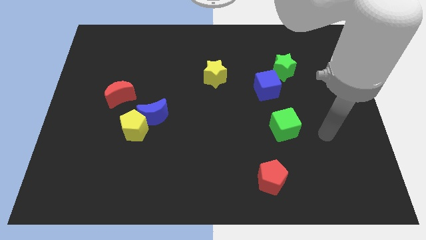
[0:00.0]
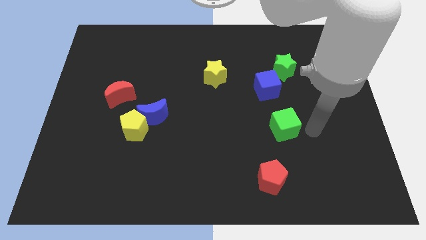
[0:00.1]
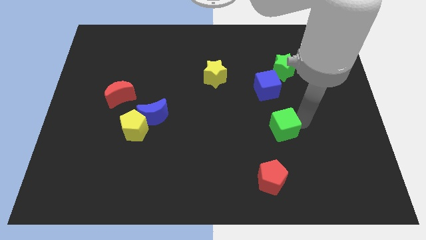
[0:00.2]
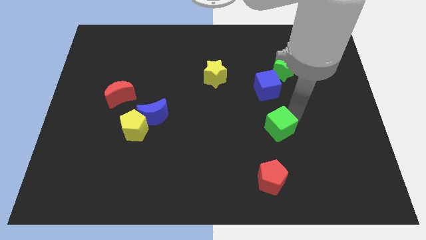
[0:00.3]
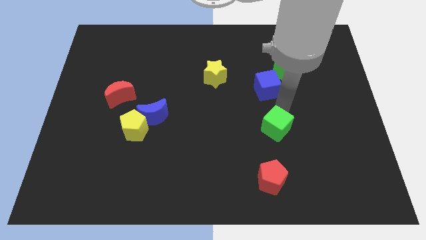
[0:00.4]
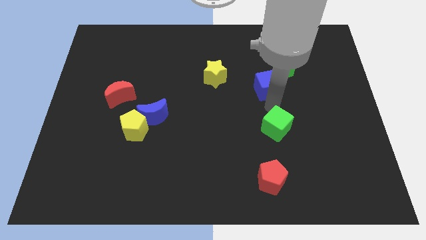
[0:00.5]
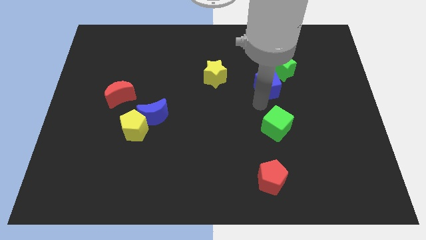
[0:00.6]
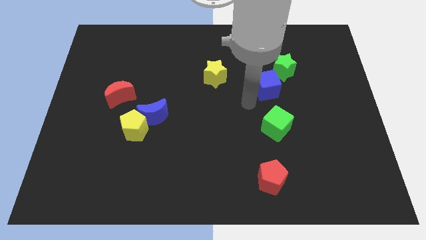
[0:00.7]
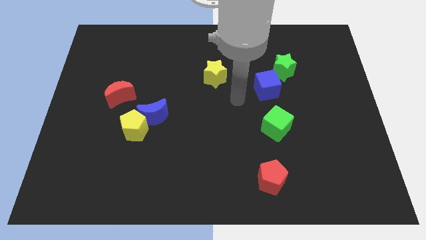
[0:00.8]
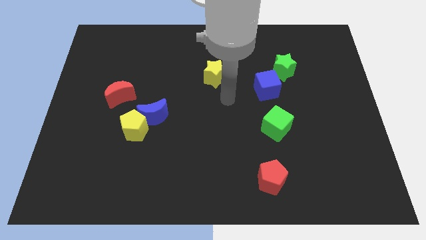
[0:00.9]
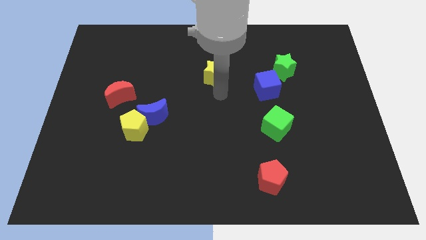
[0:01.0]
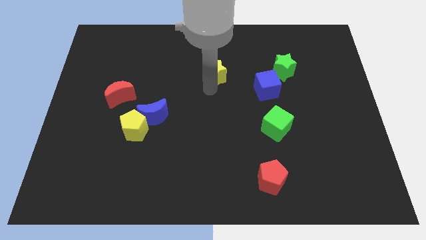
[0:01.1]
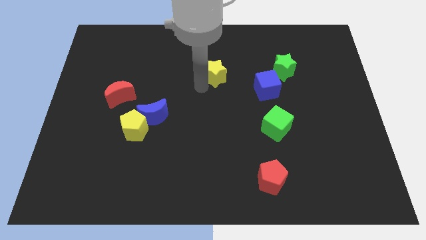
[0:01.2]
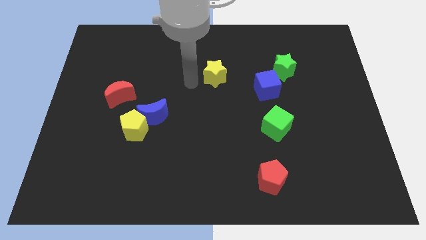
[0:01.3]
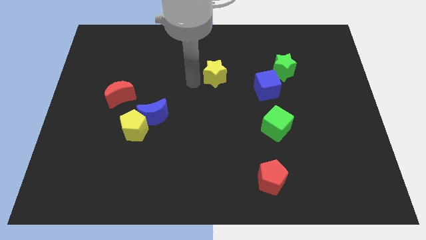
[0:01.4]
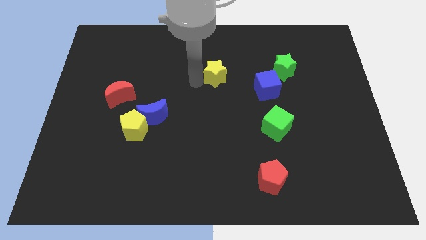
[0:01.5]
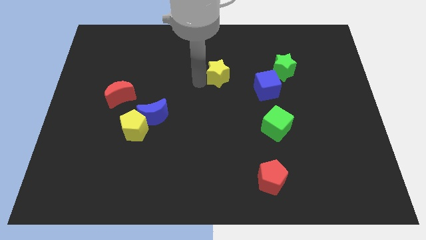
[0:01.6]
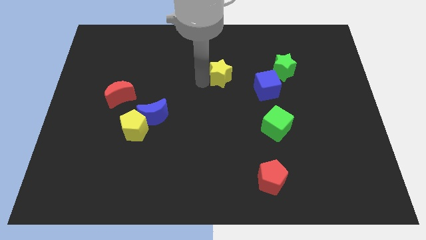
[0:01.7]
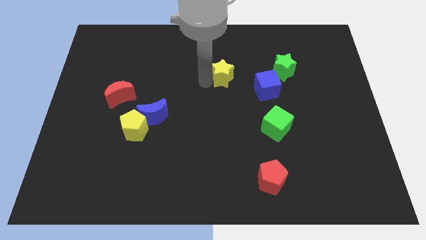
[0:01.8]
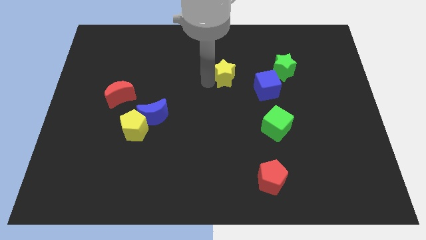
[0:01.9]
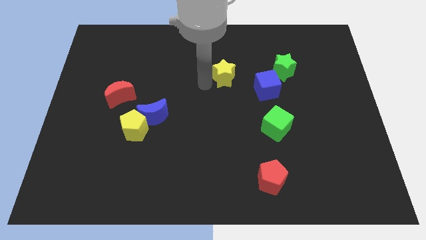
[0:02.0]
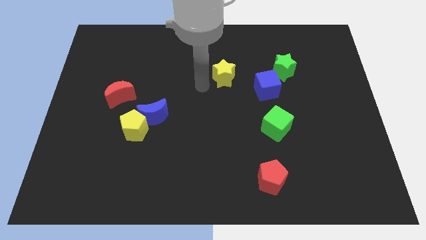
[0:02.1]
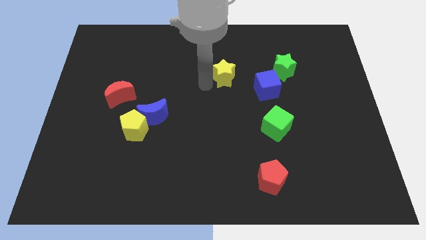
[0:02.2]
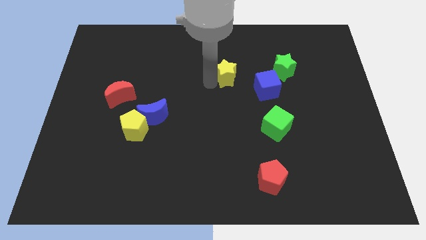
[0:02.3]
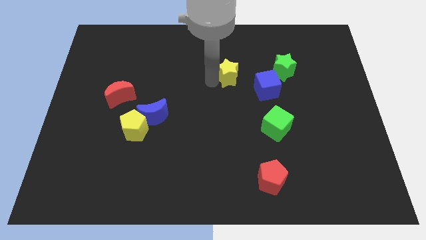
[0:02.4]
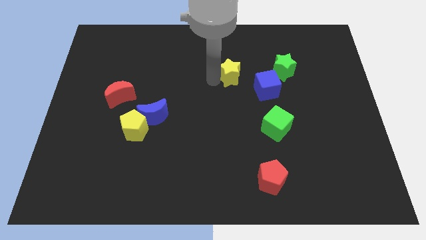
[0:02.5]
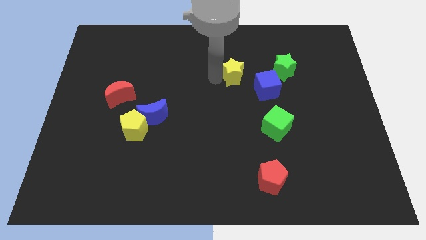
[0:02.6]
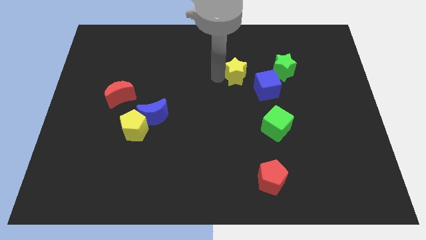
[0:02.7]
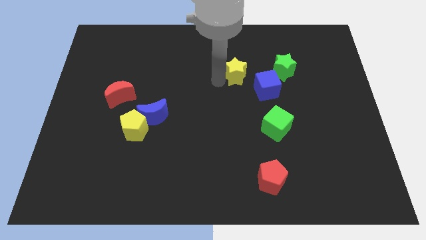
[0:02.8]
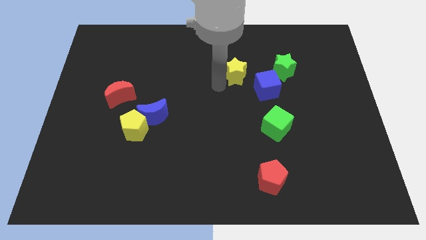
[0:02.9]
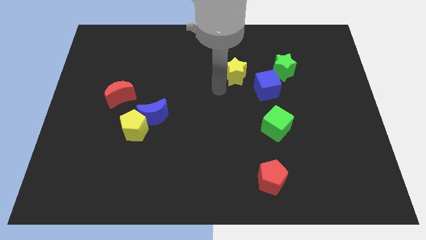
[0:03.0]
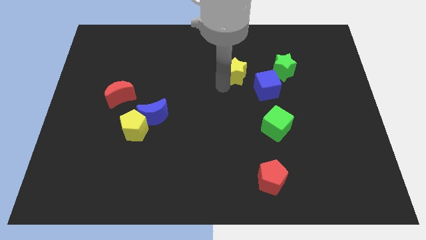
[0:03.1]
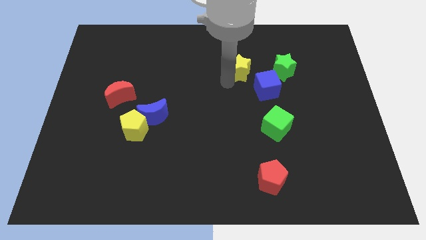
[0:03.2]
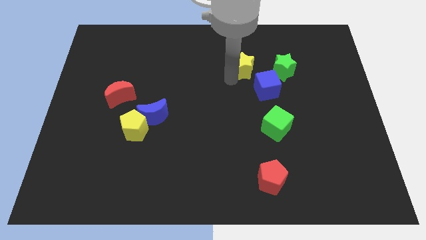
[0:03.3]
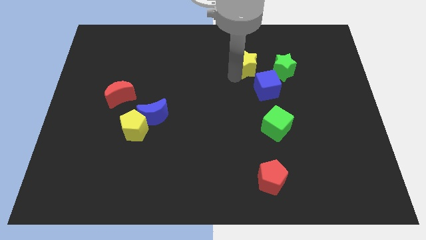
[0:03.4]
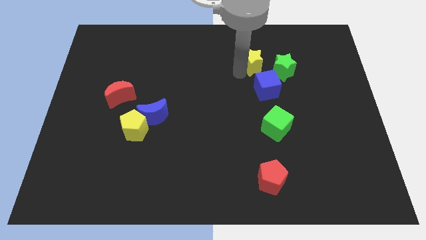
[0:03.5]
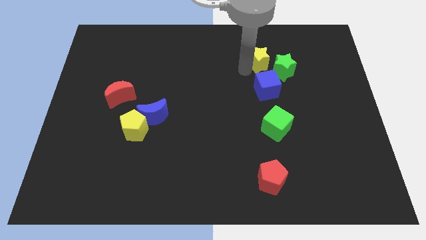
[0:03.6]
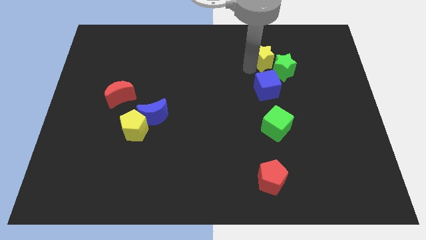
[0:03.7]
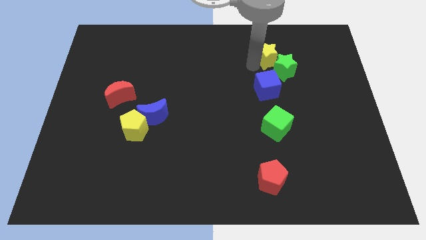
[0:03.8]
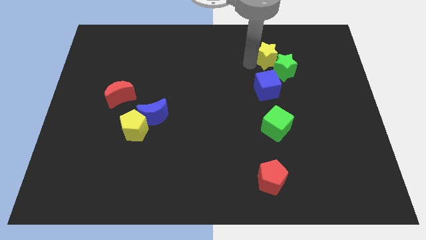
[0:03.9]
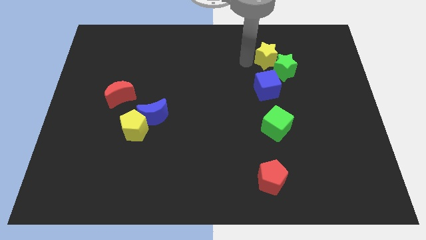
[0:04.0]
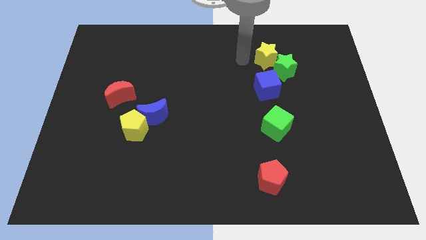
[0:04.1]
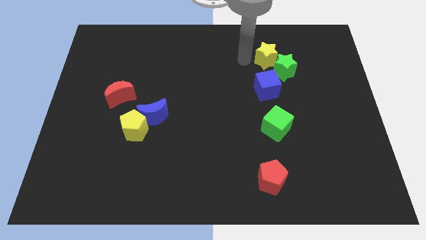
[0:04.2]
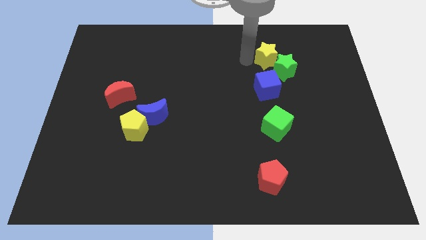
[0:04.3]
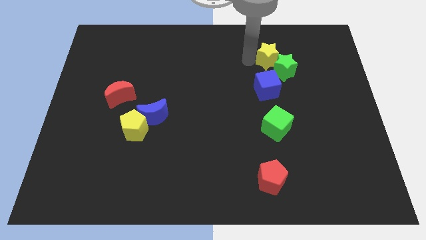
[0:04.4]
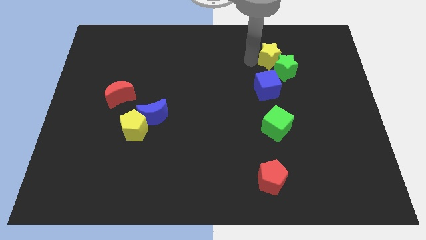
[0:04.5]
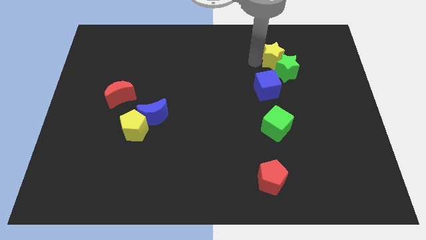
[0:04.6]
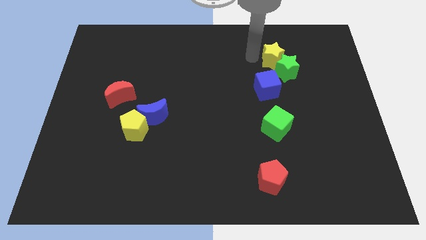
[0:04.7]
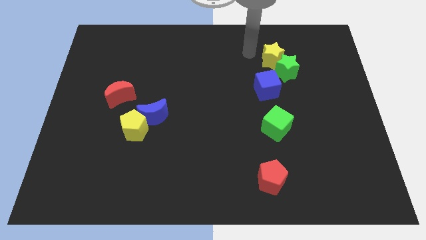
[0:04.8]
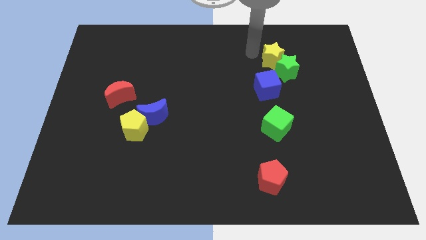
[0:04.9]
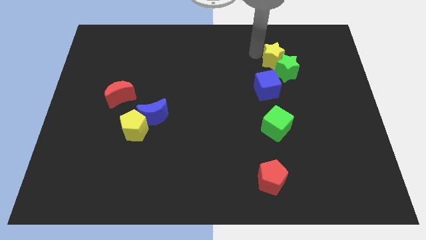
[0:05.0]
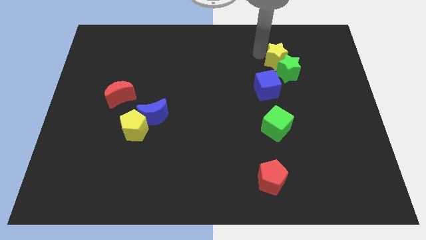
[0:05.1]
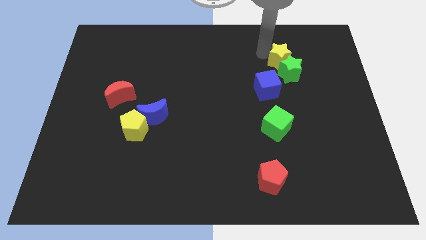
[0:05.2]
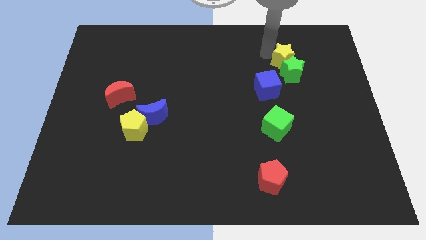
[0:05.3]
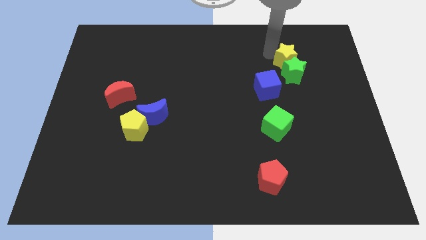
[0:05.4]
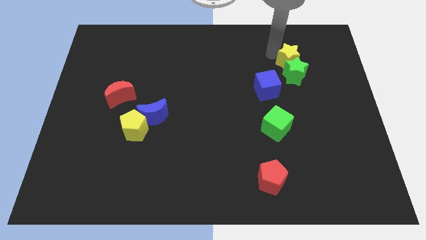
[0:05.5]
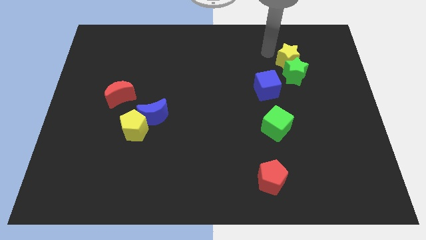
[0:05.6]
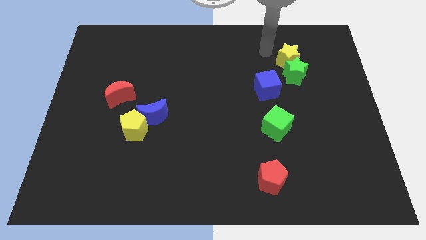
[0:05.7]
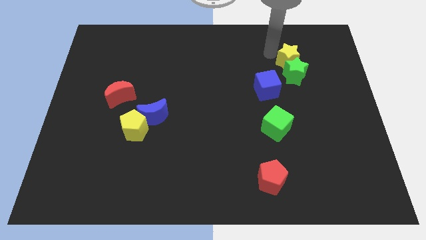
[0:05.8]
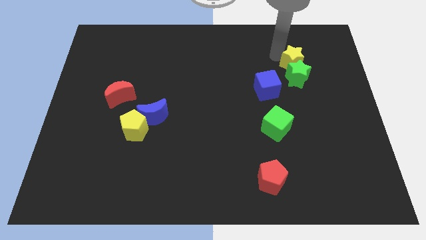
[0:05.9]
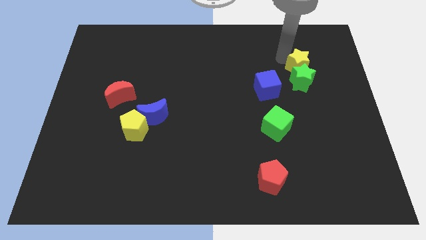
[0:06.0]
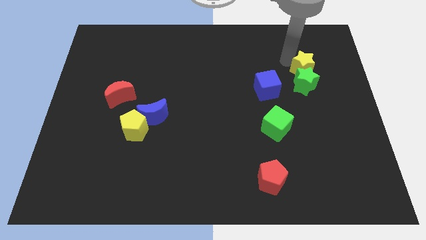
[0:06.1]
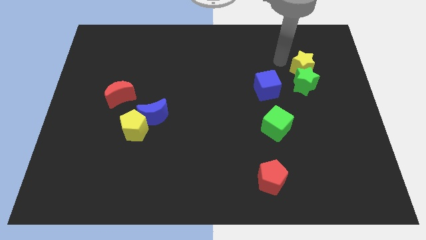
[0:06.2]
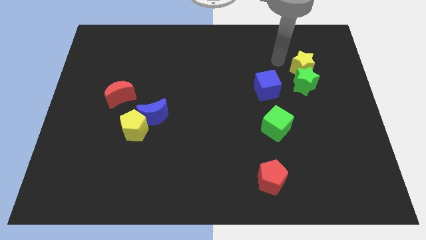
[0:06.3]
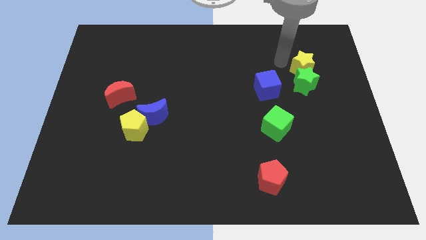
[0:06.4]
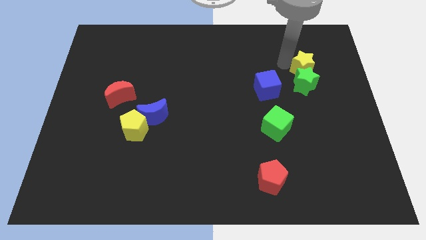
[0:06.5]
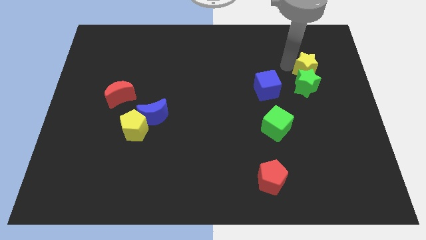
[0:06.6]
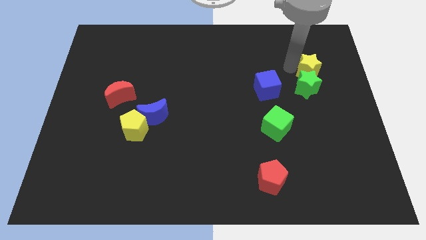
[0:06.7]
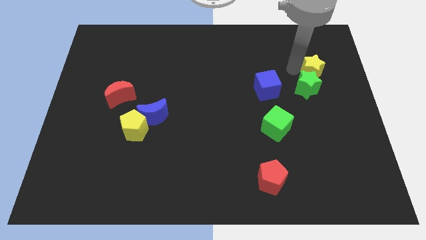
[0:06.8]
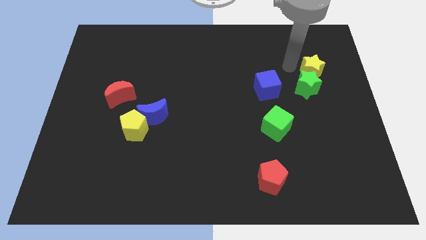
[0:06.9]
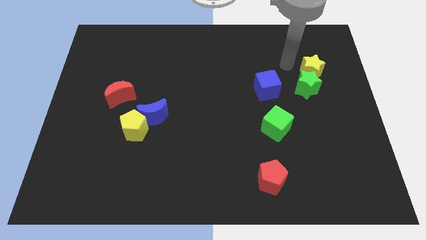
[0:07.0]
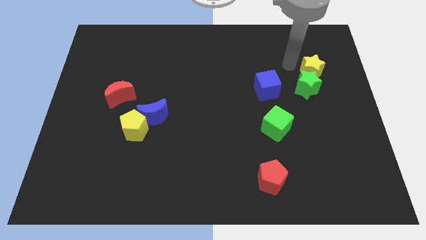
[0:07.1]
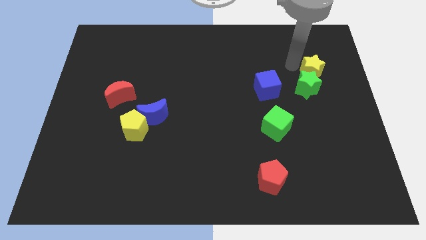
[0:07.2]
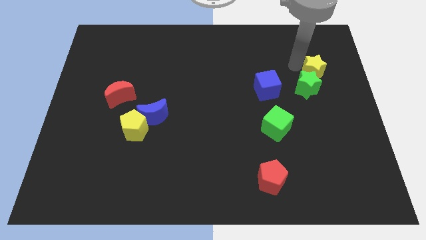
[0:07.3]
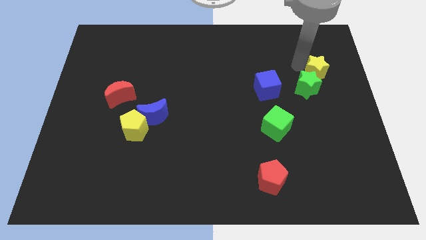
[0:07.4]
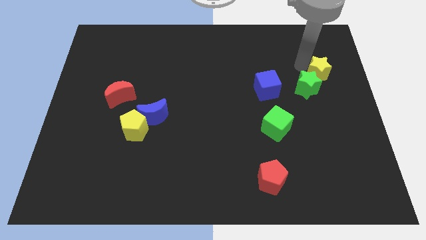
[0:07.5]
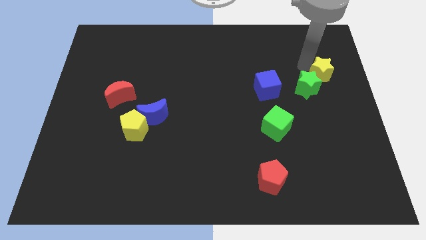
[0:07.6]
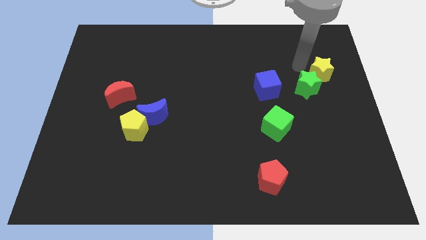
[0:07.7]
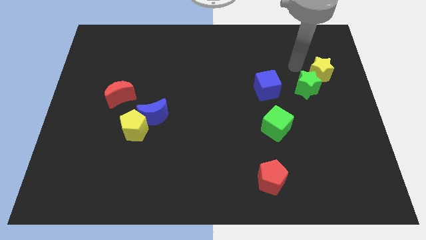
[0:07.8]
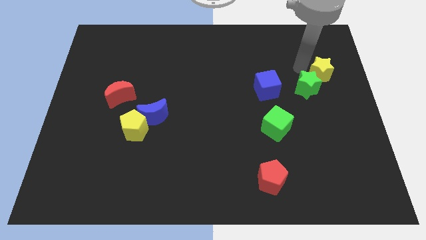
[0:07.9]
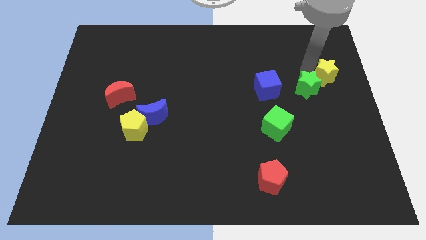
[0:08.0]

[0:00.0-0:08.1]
put the yellow star to the right side of the board
